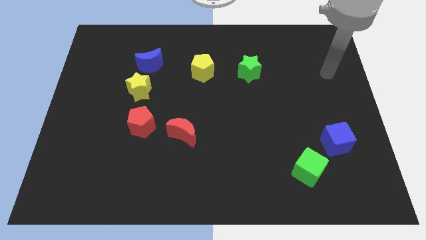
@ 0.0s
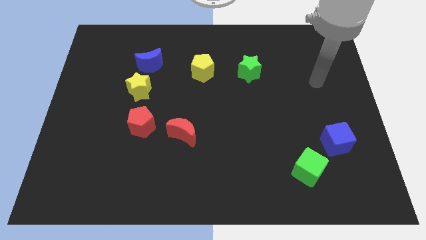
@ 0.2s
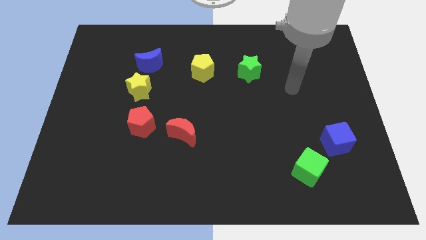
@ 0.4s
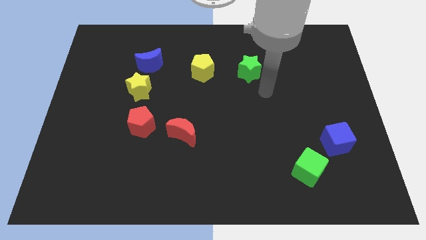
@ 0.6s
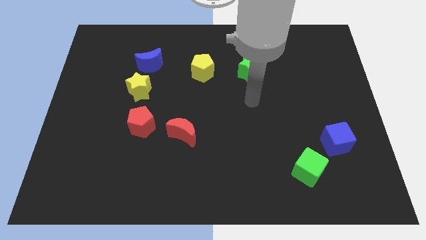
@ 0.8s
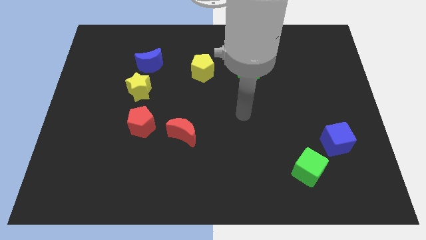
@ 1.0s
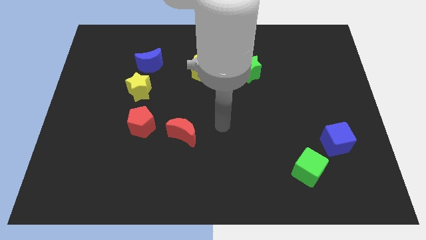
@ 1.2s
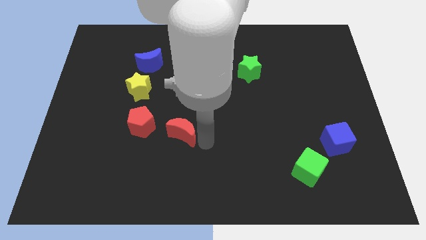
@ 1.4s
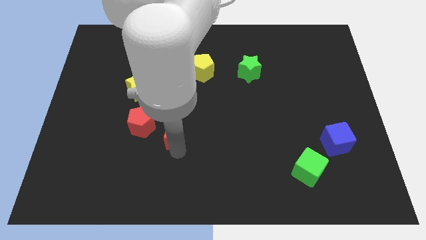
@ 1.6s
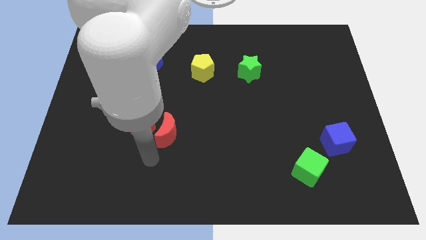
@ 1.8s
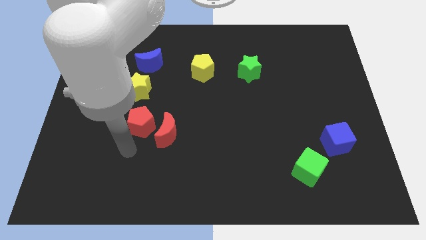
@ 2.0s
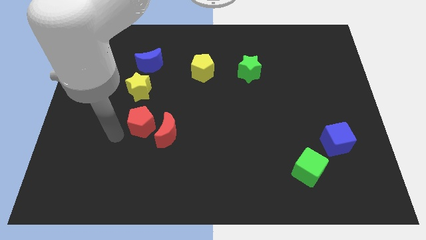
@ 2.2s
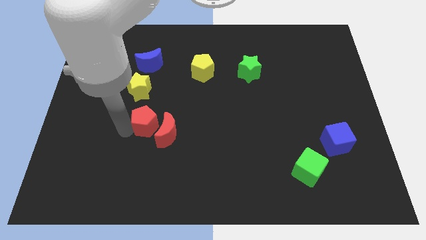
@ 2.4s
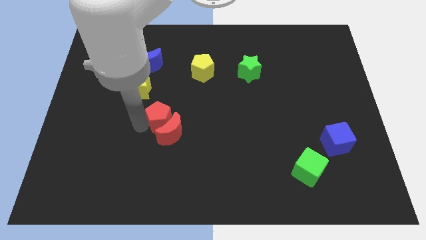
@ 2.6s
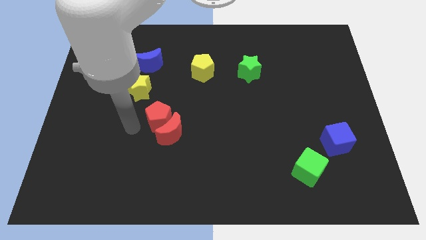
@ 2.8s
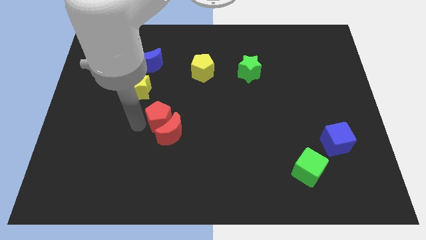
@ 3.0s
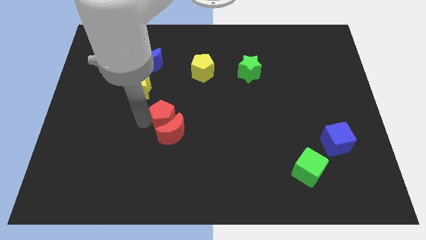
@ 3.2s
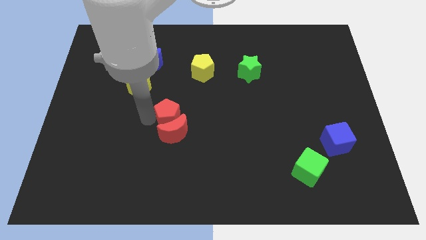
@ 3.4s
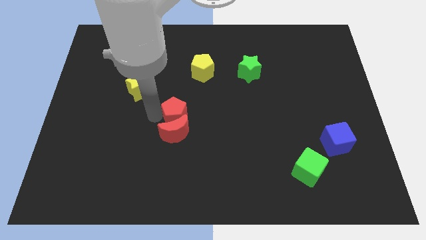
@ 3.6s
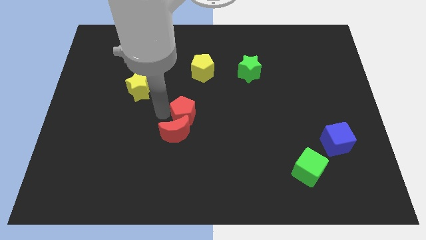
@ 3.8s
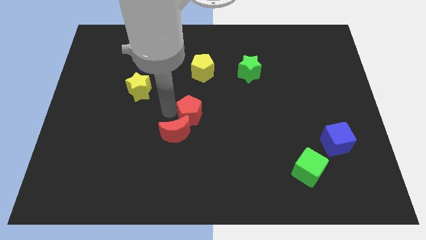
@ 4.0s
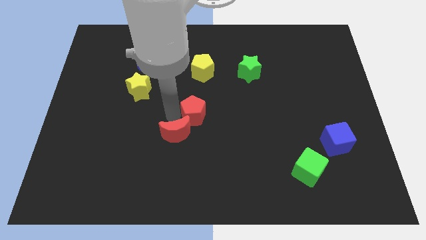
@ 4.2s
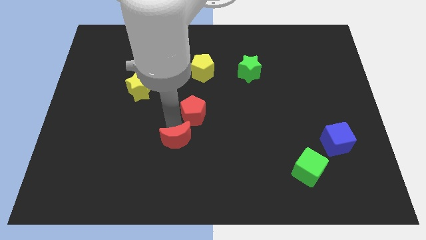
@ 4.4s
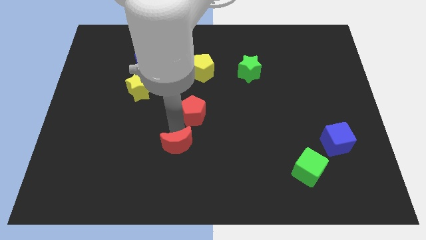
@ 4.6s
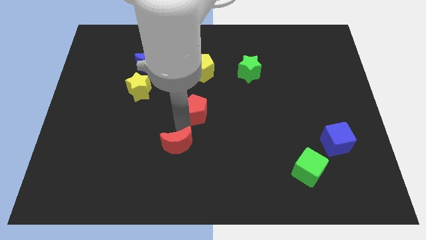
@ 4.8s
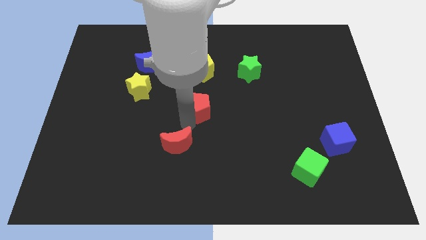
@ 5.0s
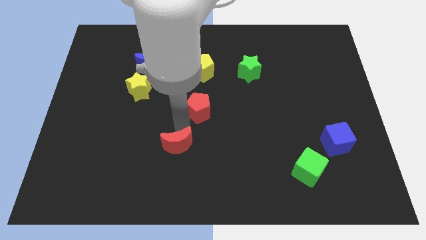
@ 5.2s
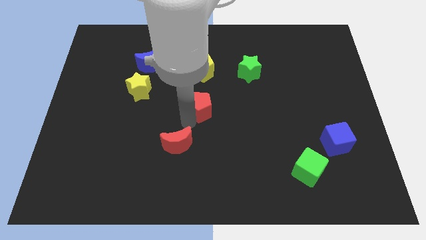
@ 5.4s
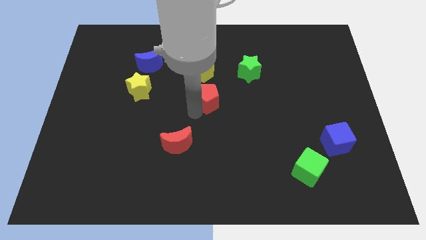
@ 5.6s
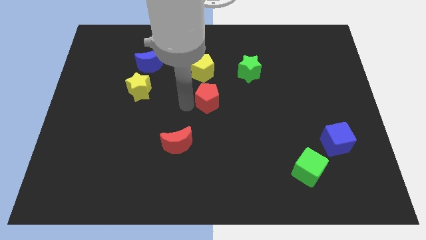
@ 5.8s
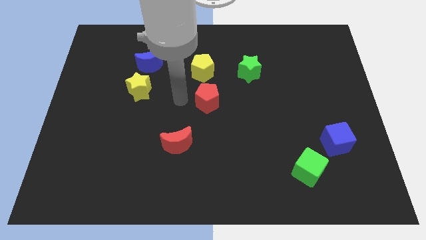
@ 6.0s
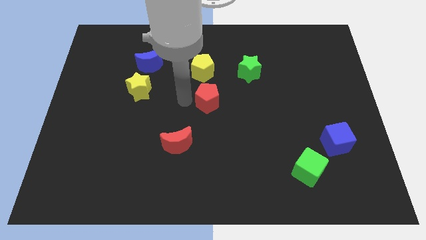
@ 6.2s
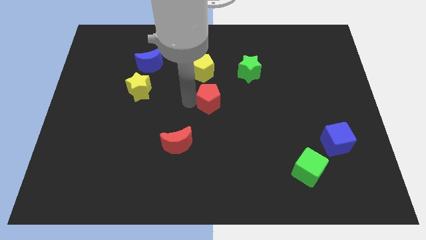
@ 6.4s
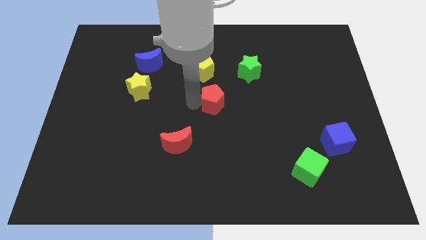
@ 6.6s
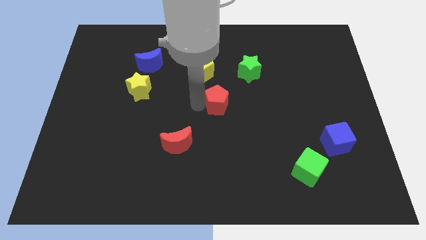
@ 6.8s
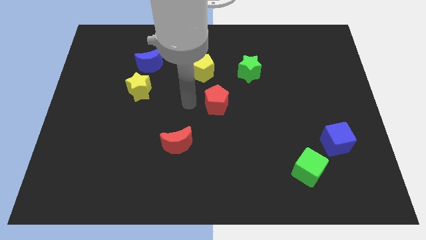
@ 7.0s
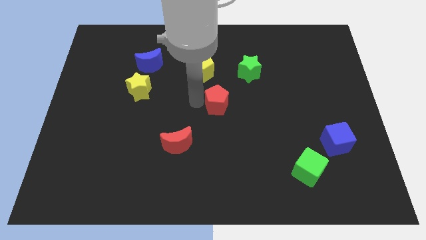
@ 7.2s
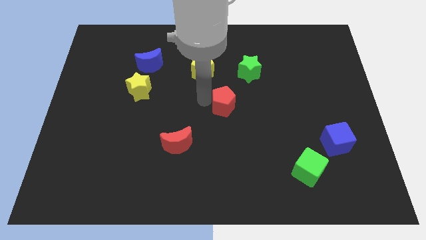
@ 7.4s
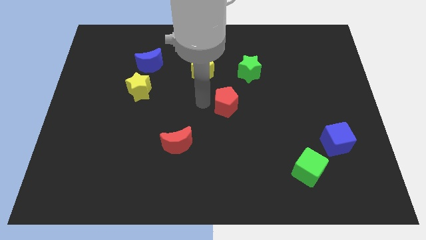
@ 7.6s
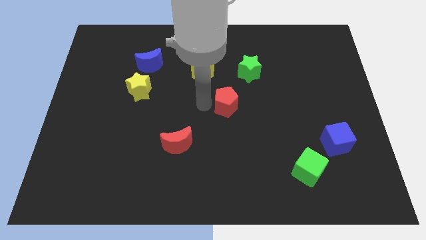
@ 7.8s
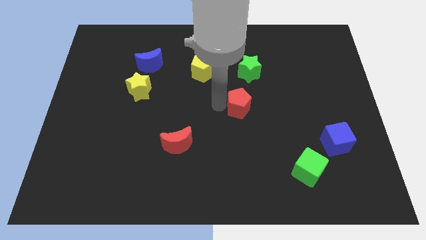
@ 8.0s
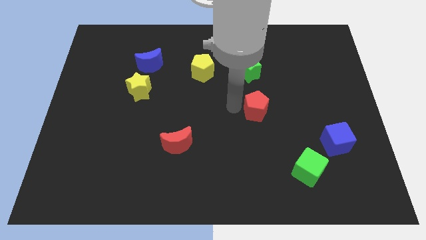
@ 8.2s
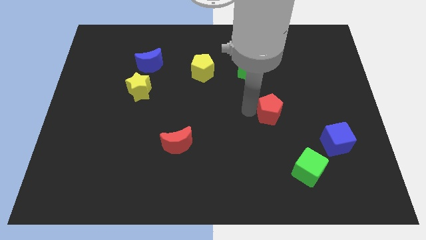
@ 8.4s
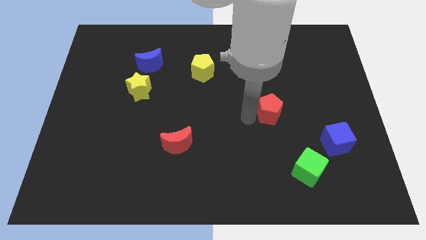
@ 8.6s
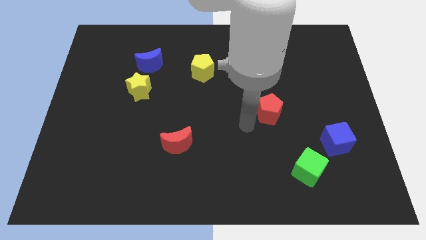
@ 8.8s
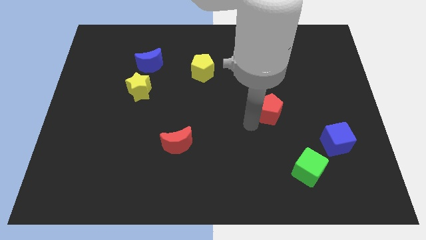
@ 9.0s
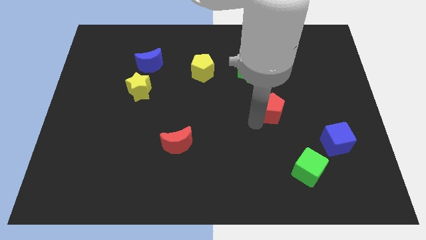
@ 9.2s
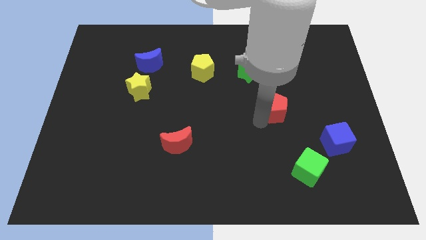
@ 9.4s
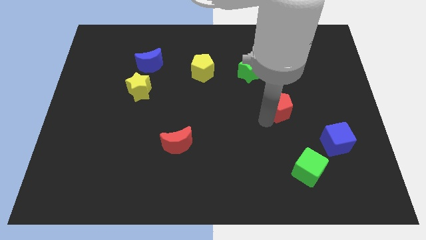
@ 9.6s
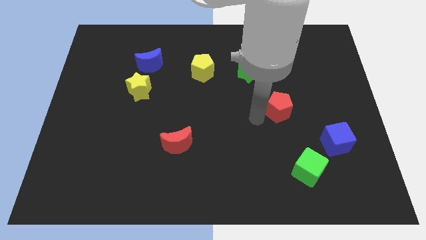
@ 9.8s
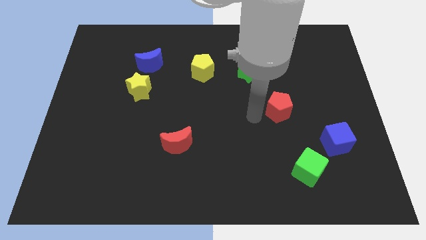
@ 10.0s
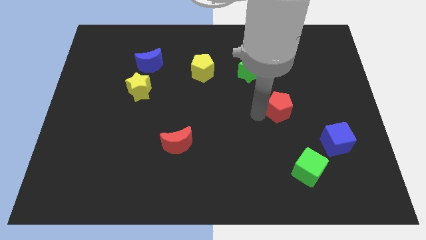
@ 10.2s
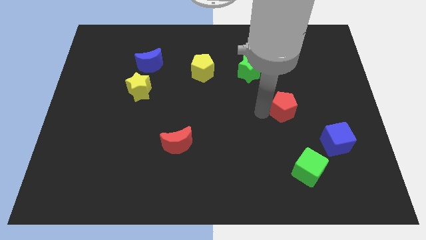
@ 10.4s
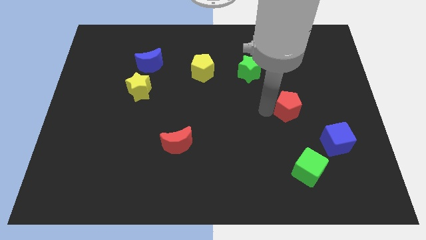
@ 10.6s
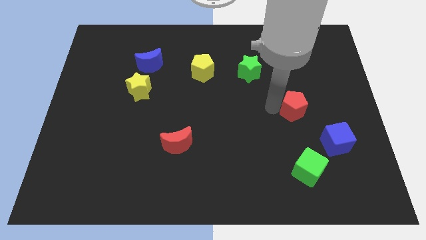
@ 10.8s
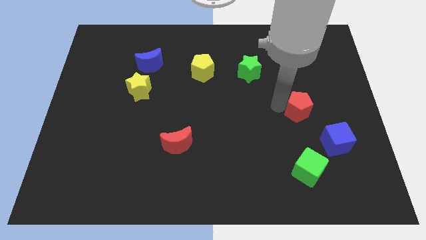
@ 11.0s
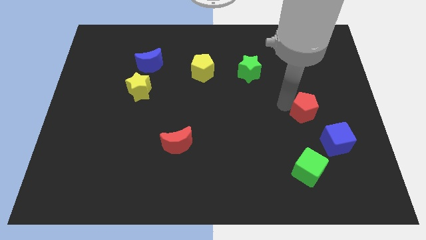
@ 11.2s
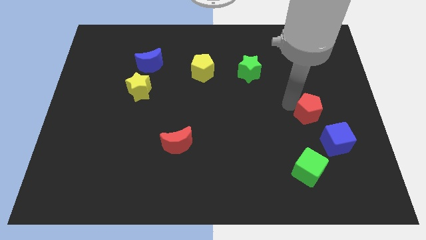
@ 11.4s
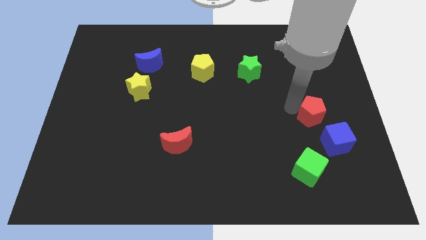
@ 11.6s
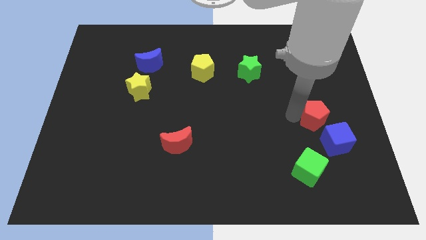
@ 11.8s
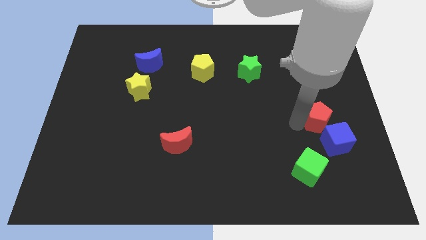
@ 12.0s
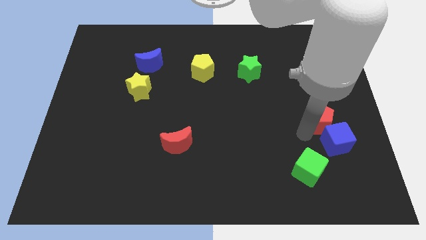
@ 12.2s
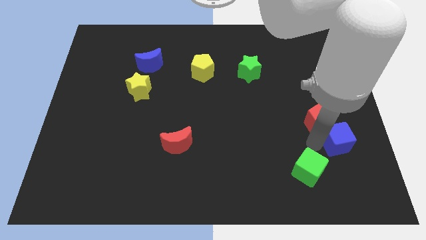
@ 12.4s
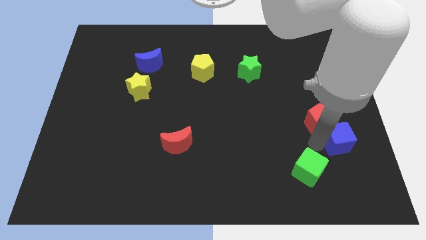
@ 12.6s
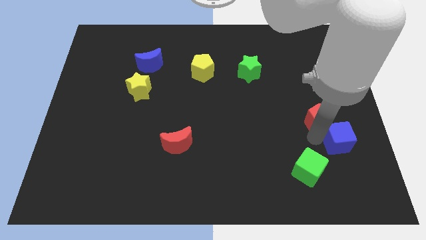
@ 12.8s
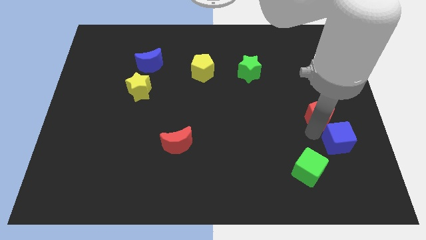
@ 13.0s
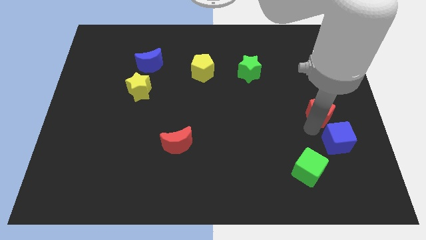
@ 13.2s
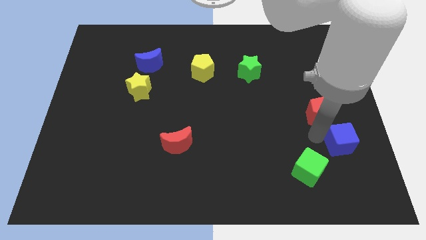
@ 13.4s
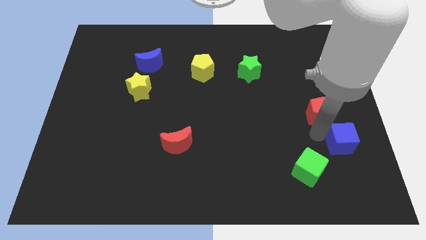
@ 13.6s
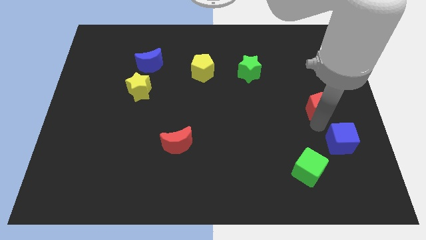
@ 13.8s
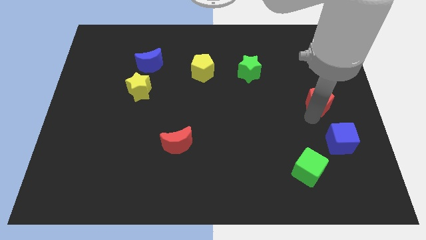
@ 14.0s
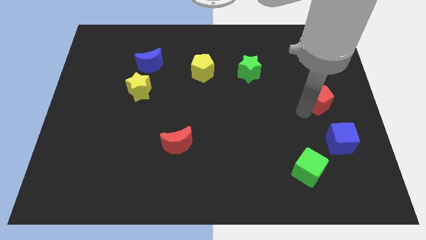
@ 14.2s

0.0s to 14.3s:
move the red pentagon to the right side
